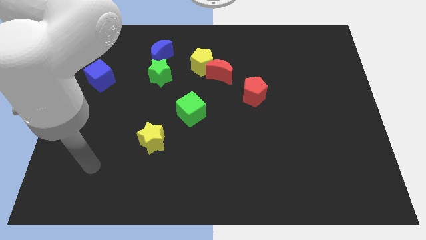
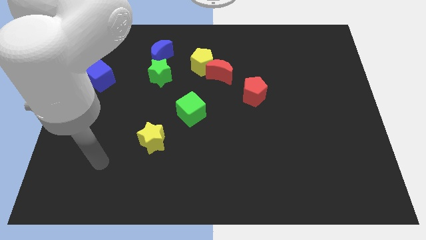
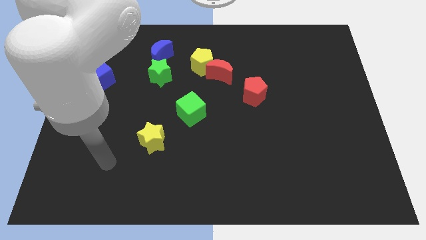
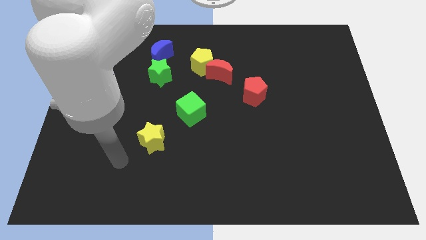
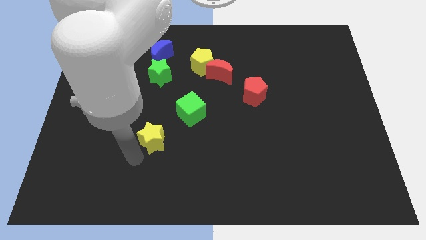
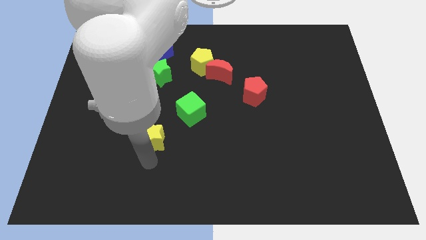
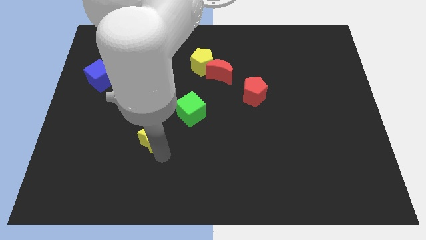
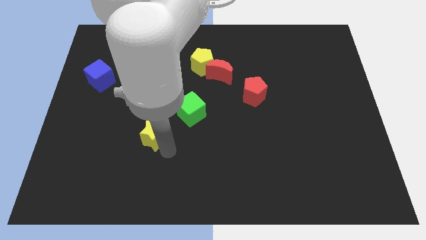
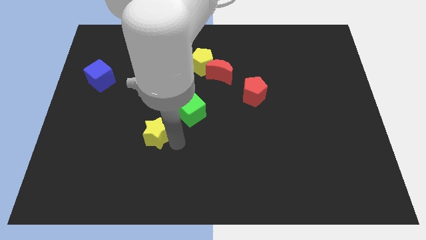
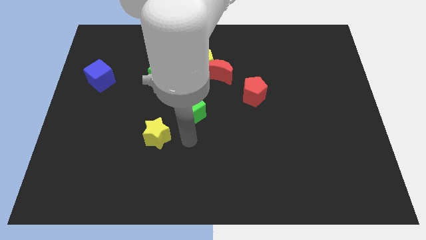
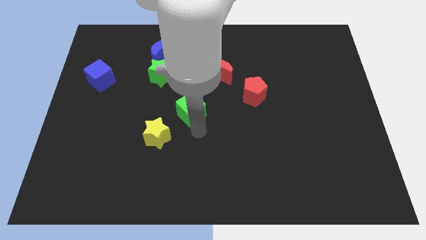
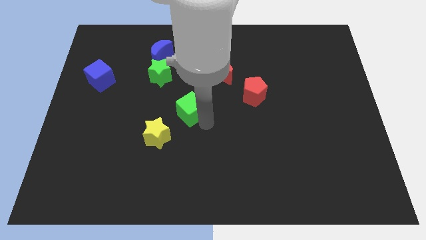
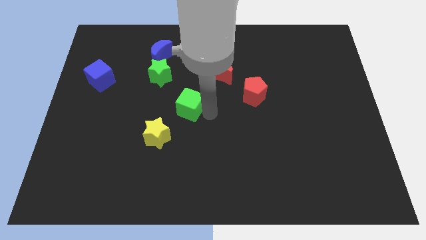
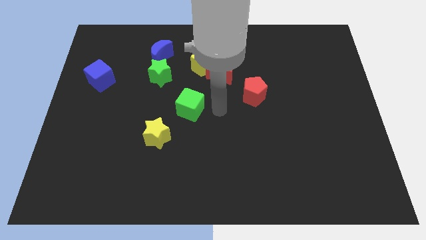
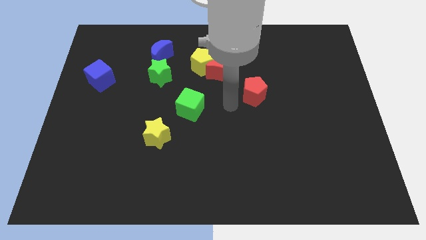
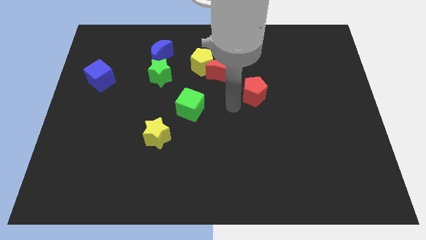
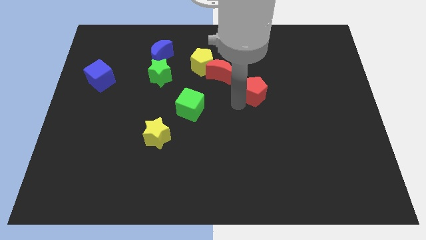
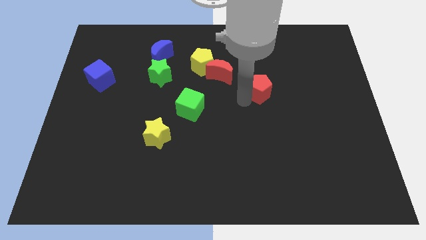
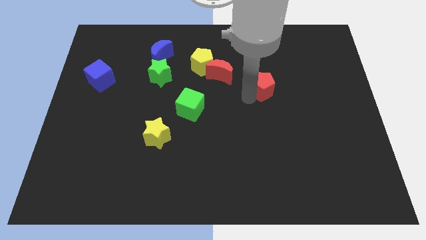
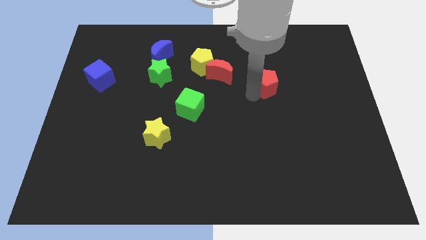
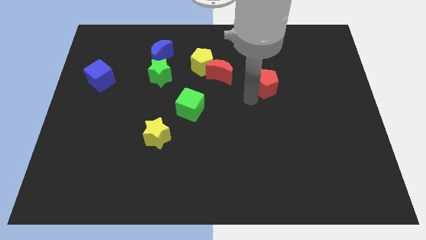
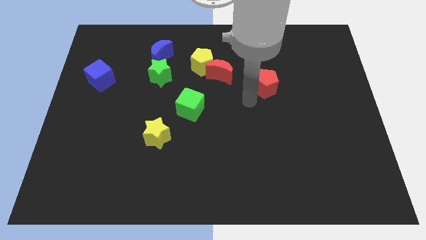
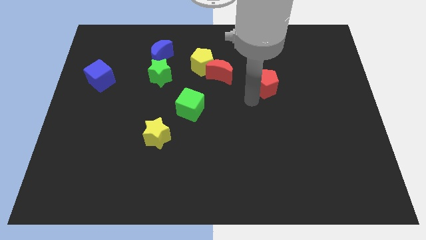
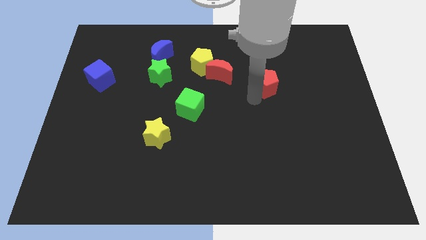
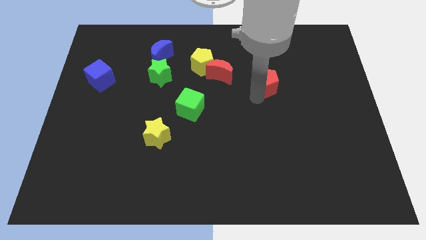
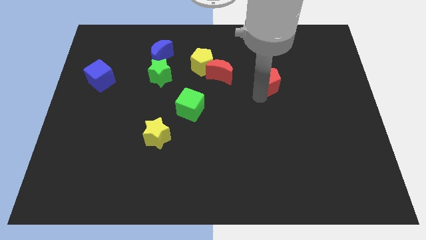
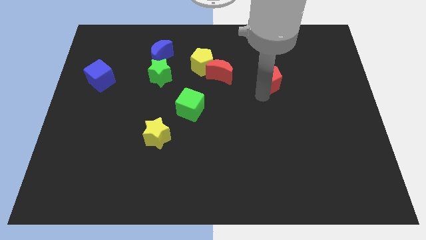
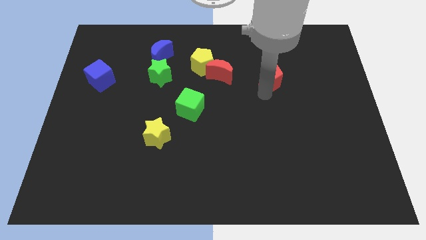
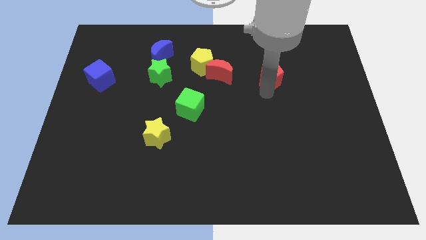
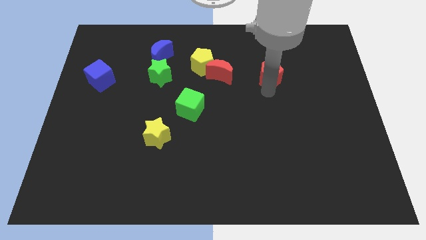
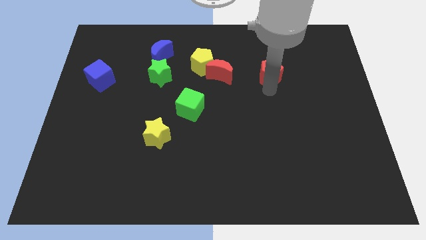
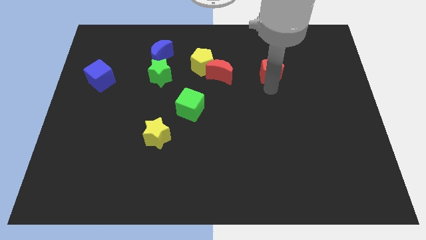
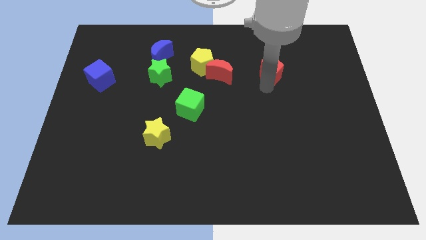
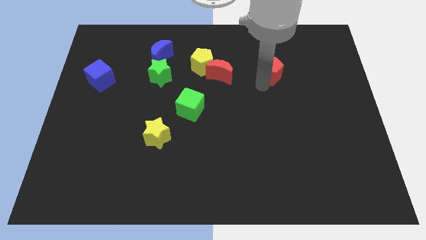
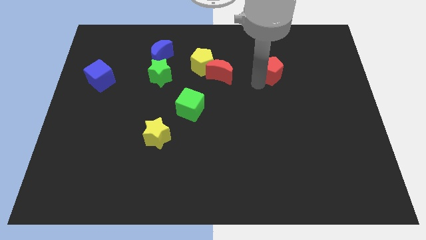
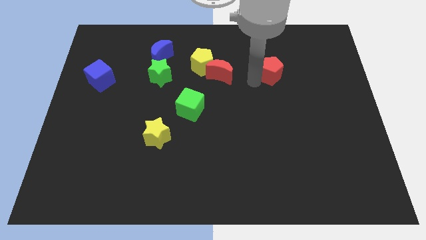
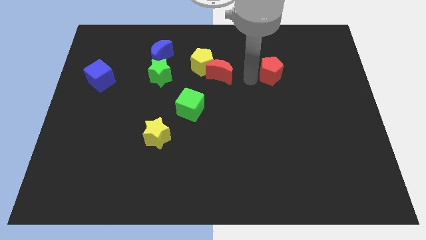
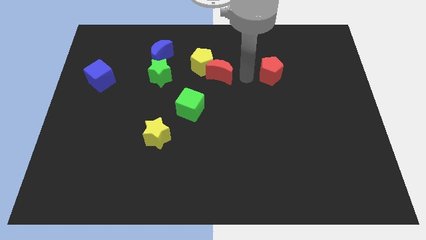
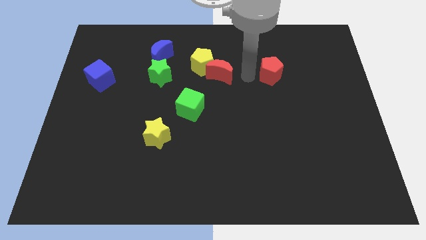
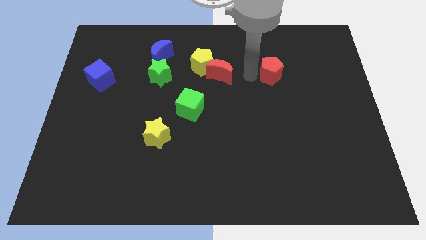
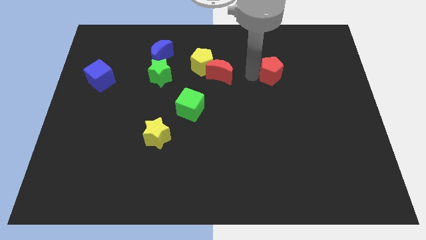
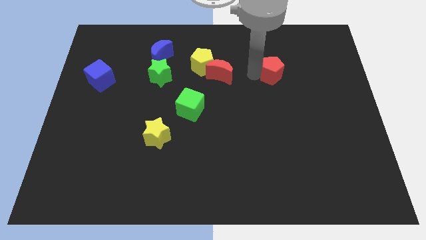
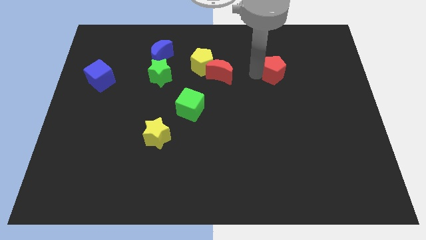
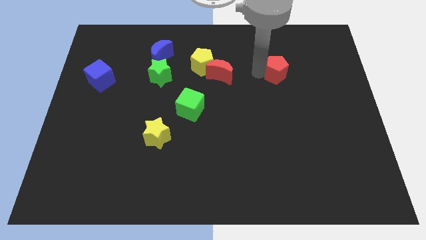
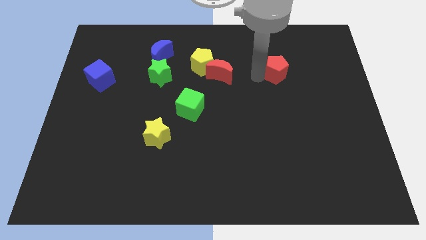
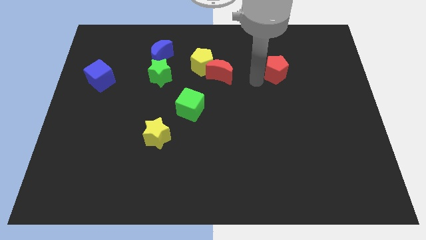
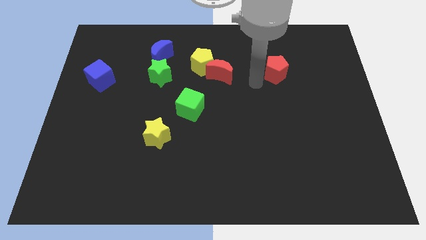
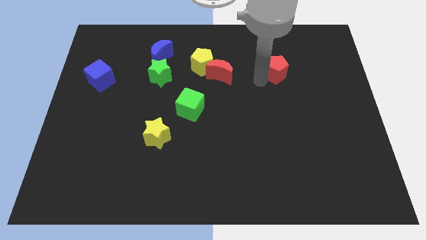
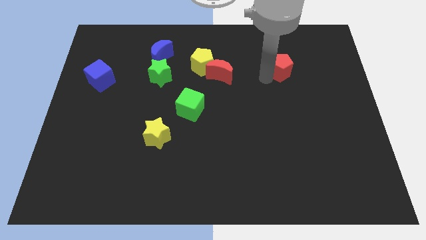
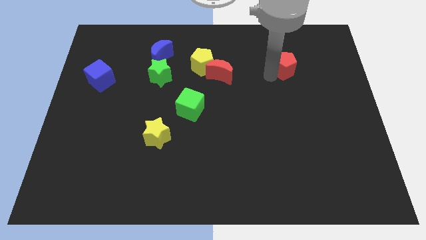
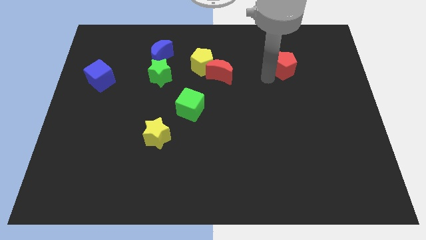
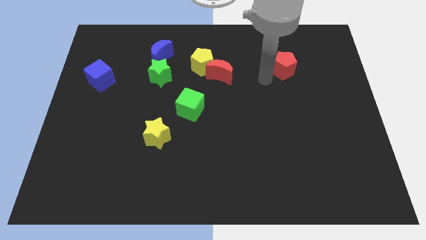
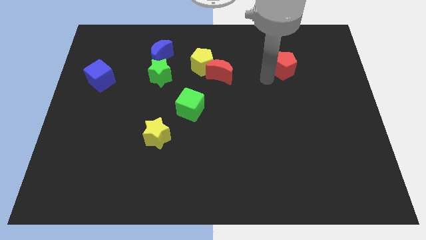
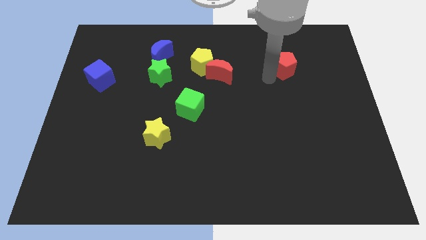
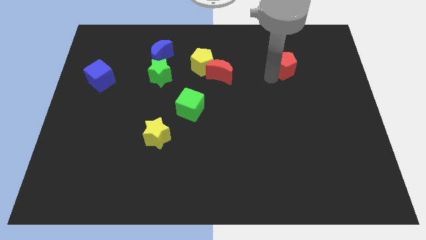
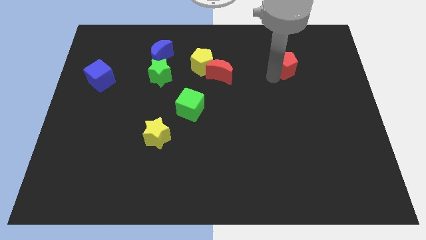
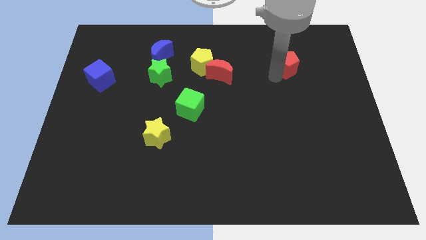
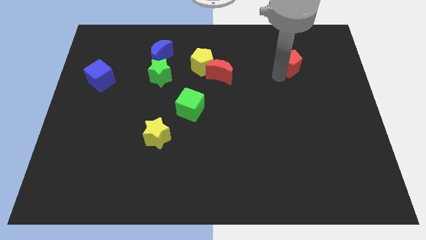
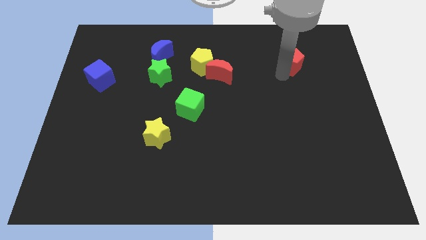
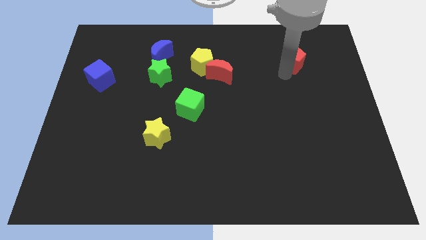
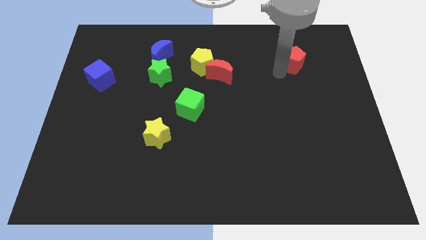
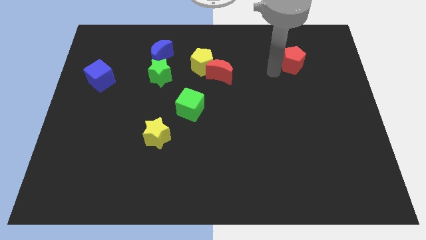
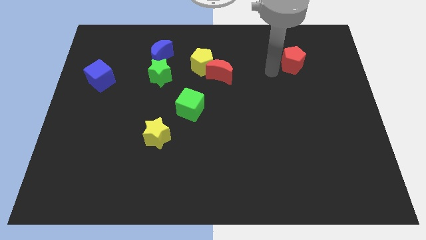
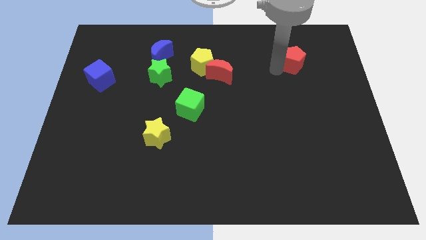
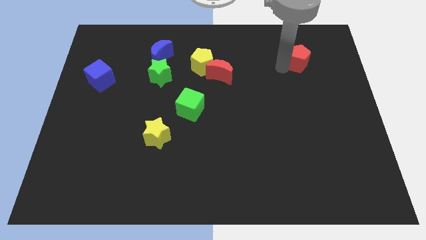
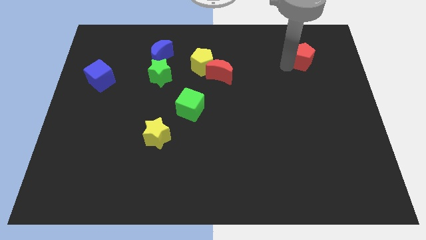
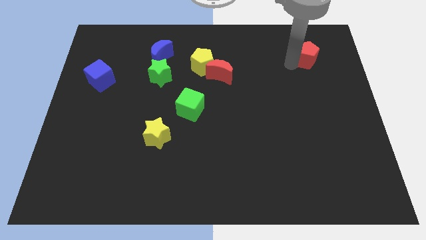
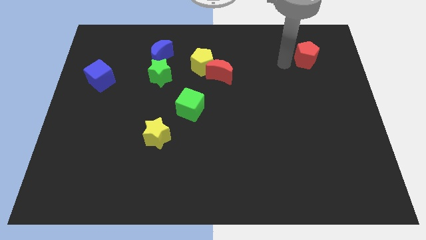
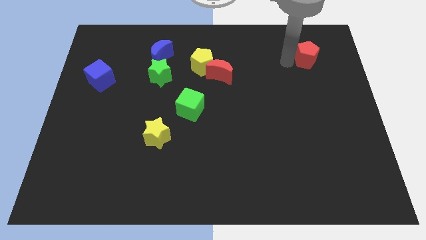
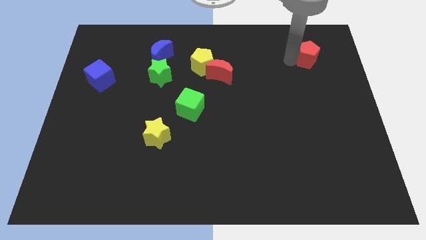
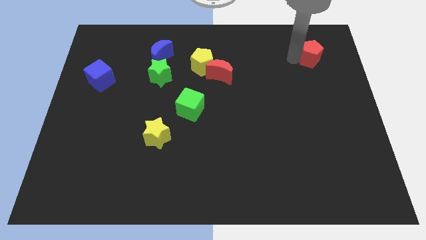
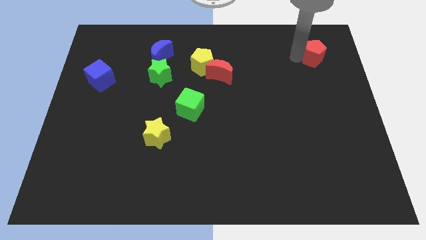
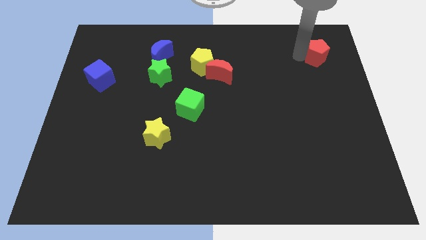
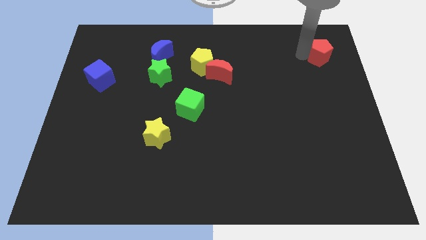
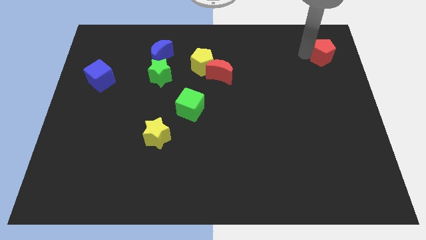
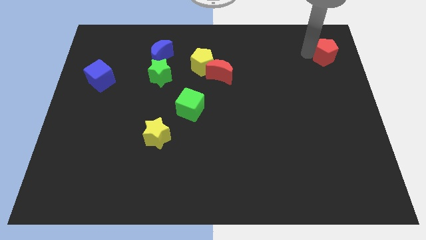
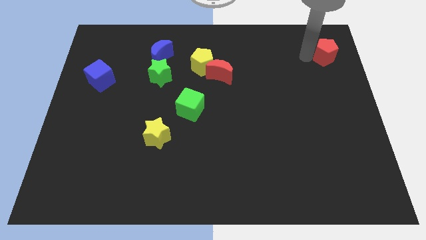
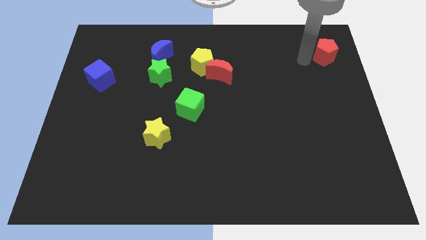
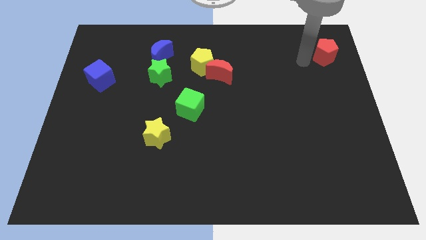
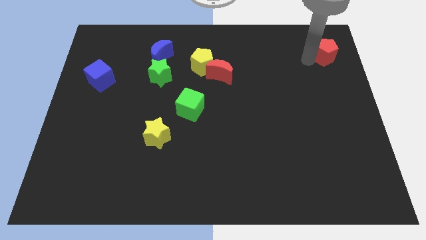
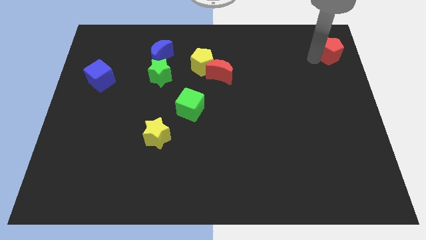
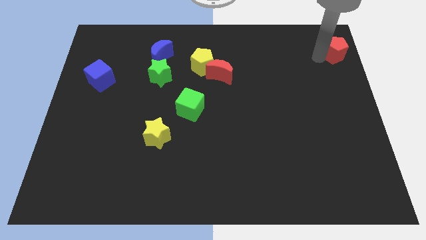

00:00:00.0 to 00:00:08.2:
slide the red pentagon to the top right
